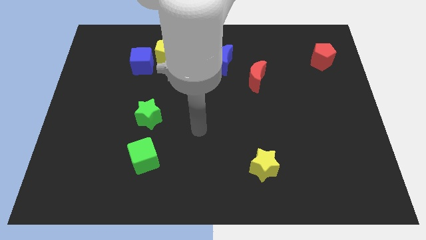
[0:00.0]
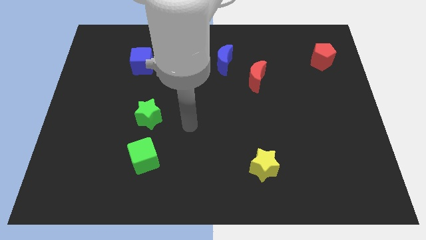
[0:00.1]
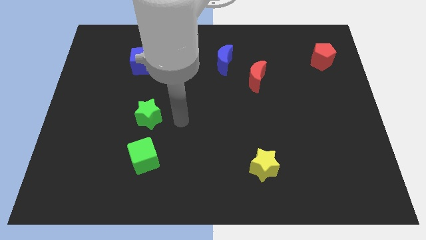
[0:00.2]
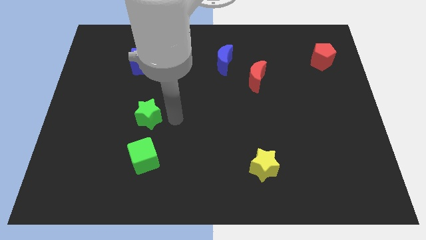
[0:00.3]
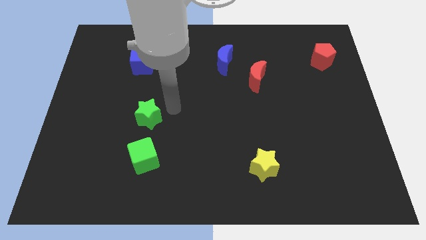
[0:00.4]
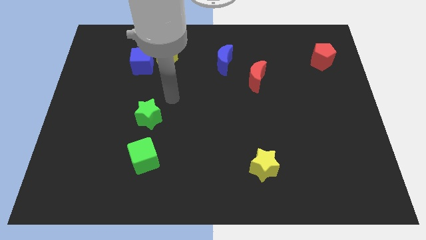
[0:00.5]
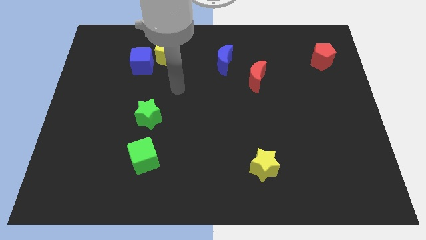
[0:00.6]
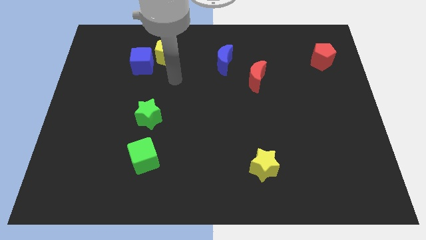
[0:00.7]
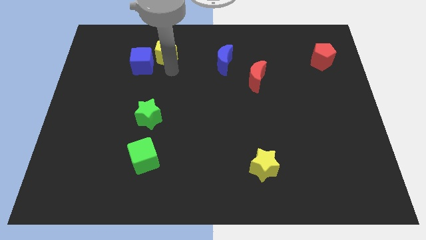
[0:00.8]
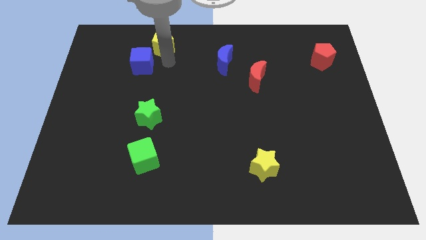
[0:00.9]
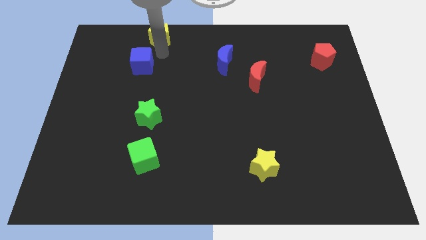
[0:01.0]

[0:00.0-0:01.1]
separate the blue cube from the yellow pentagon

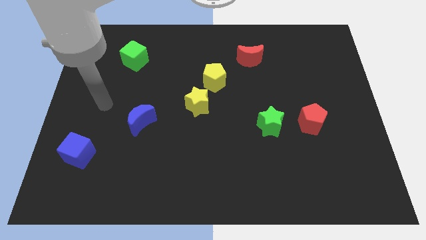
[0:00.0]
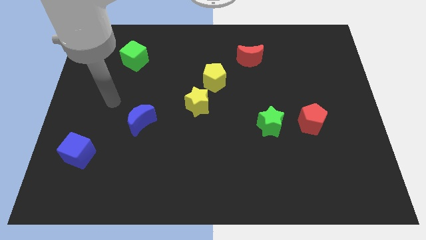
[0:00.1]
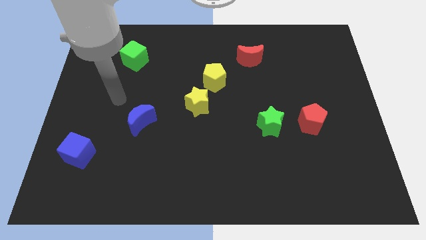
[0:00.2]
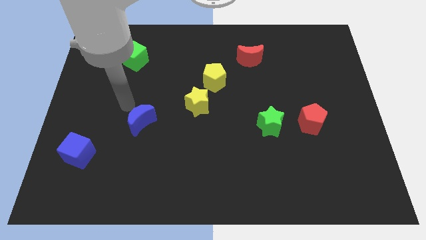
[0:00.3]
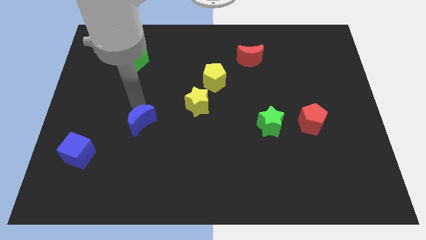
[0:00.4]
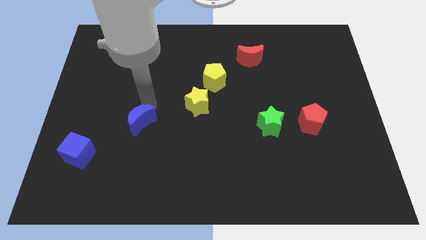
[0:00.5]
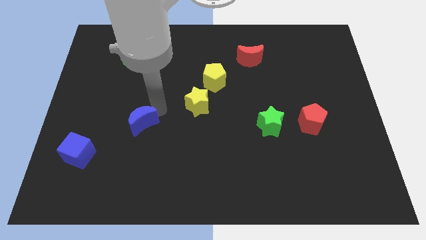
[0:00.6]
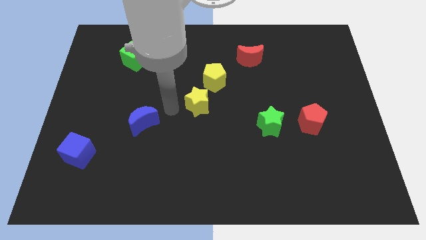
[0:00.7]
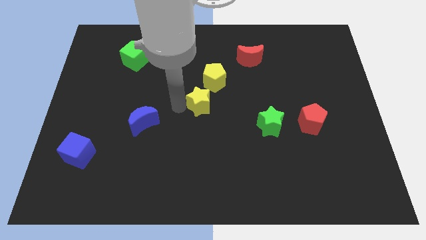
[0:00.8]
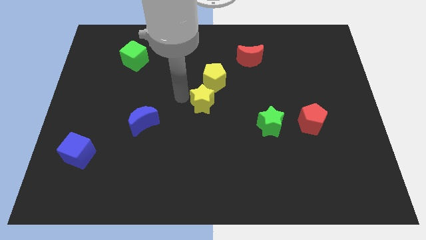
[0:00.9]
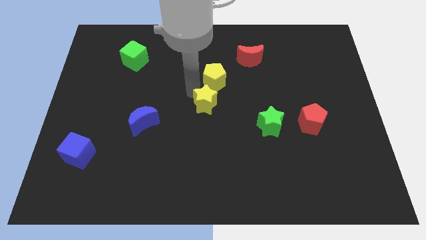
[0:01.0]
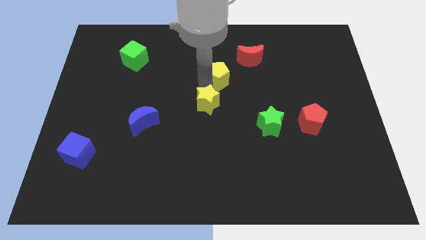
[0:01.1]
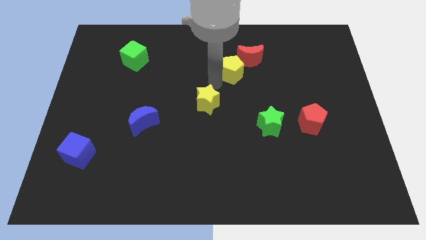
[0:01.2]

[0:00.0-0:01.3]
separate the yellow star from the yellow pentagon

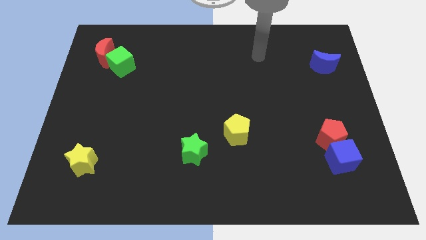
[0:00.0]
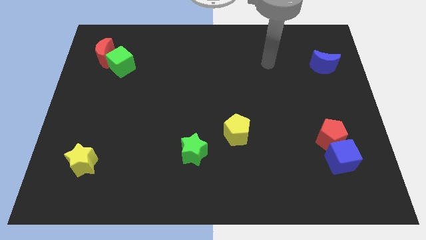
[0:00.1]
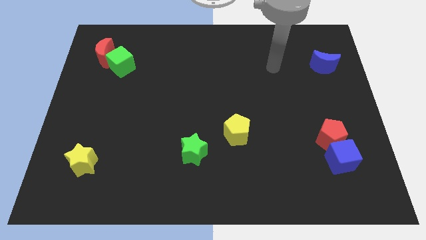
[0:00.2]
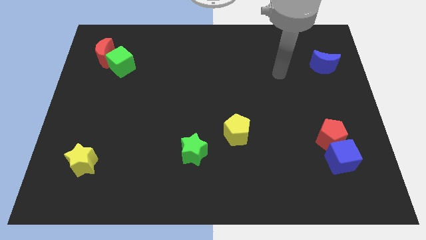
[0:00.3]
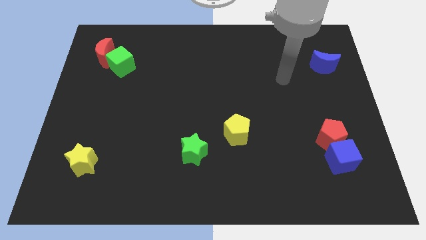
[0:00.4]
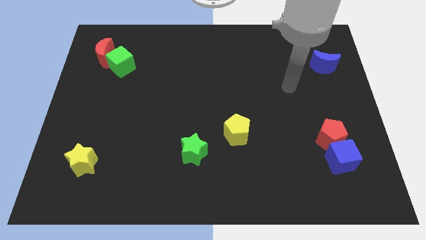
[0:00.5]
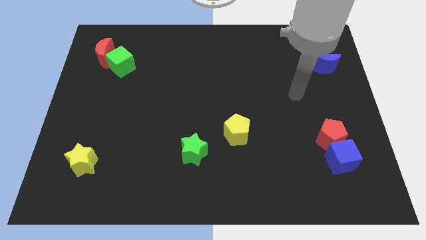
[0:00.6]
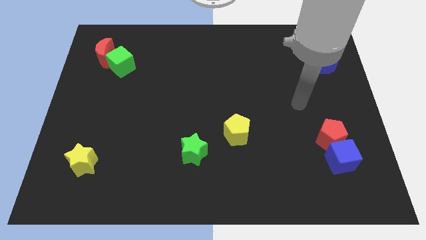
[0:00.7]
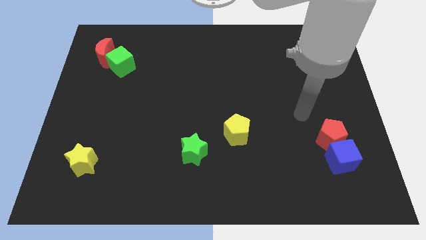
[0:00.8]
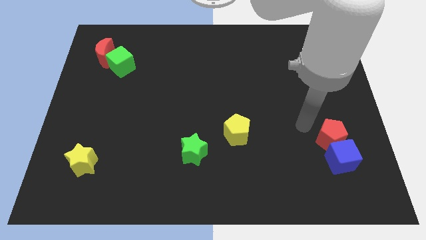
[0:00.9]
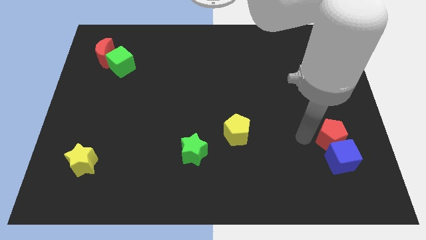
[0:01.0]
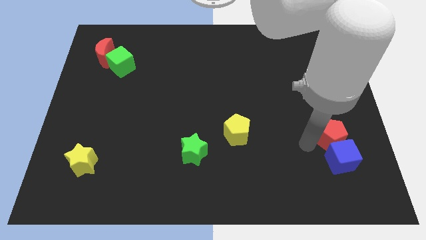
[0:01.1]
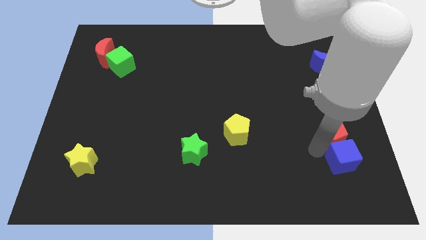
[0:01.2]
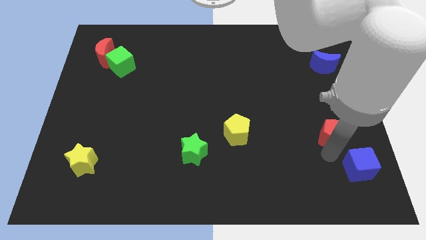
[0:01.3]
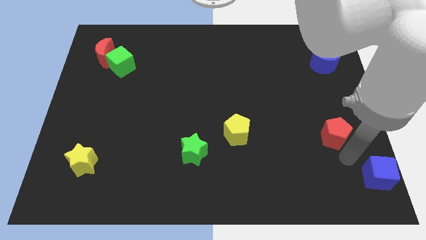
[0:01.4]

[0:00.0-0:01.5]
move the red pentagon away from the blue cube

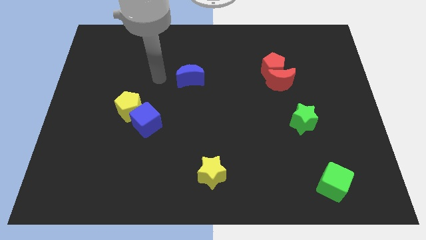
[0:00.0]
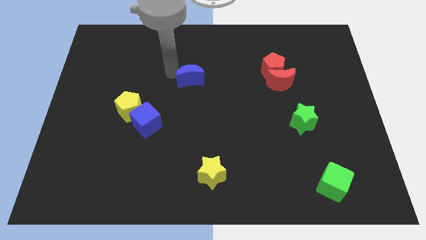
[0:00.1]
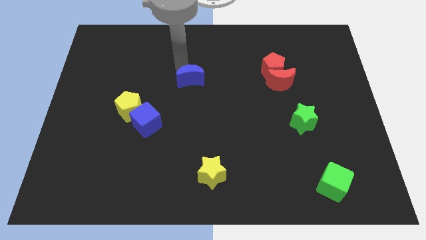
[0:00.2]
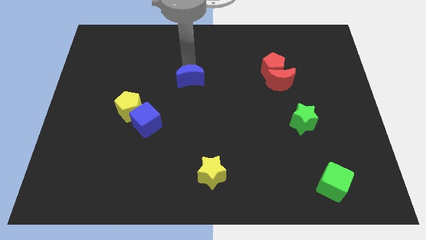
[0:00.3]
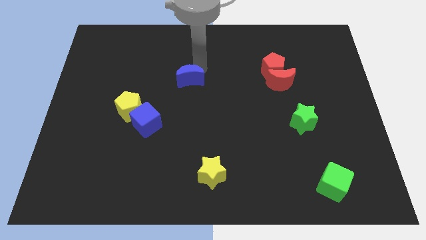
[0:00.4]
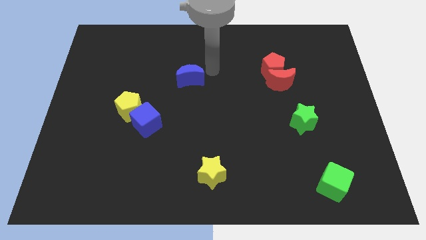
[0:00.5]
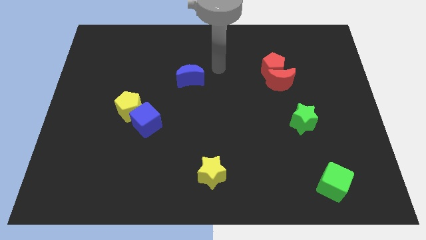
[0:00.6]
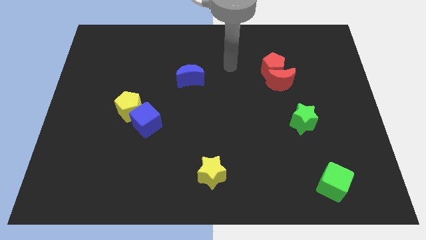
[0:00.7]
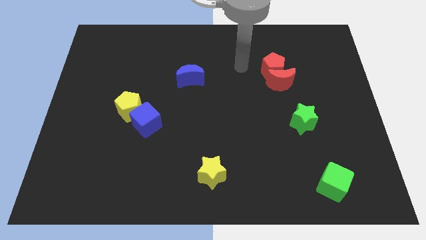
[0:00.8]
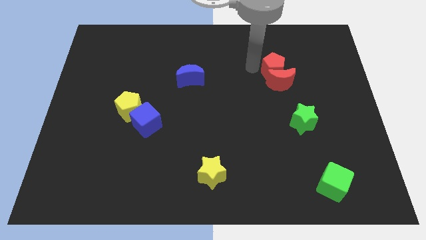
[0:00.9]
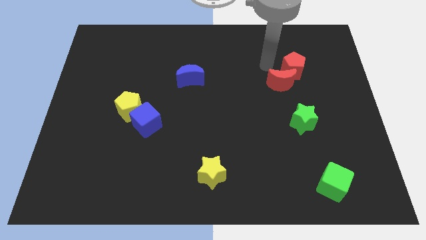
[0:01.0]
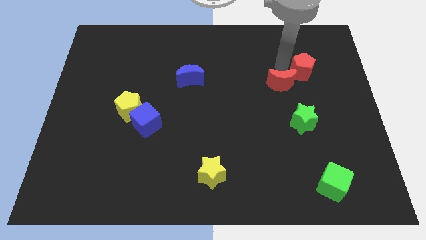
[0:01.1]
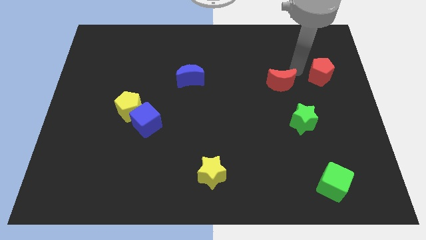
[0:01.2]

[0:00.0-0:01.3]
separate the red moon from the red pentagon

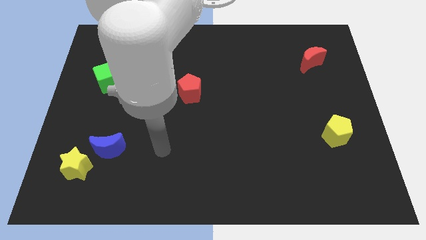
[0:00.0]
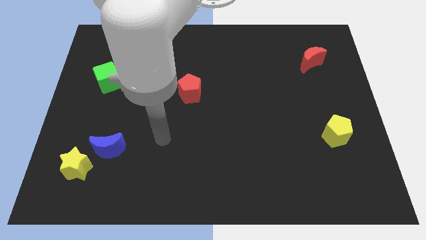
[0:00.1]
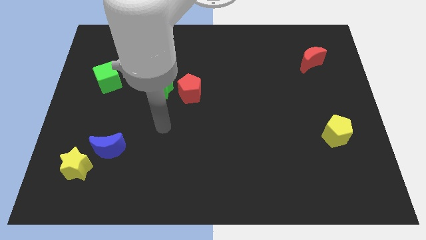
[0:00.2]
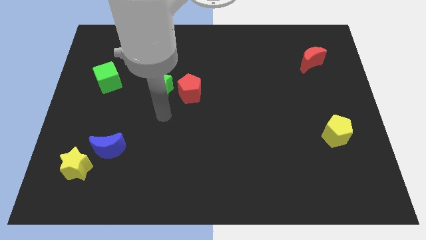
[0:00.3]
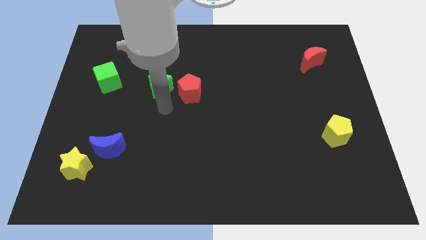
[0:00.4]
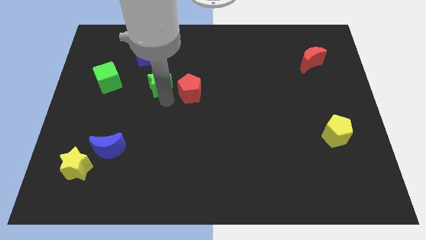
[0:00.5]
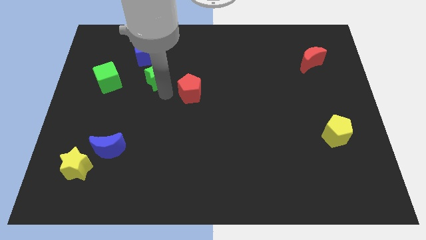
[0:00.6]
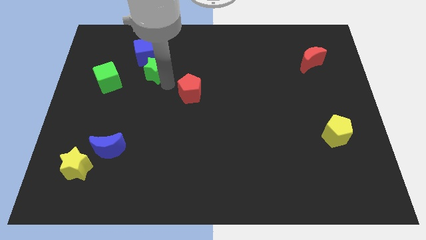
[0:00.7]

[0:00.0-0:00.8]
separate the red pentagon from the green star

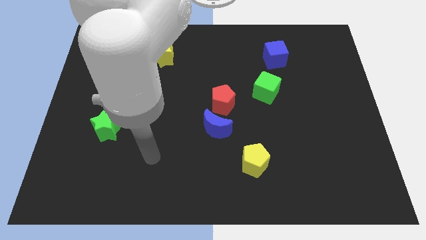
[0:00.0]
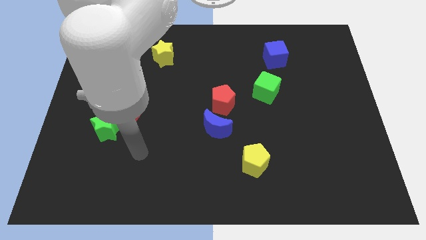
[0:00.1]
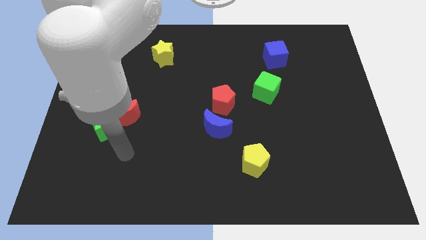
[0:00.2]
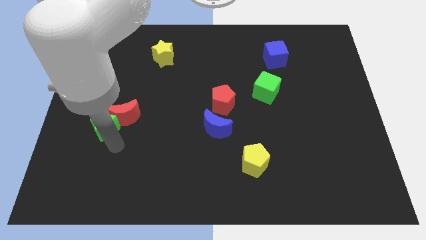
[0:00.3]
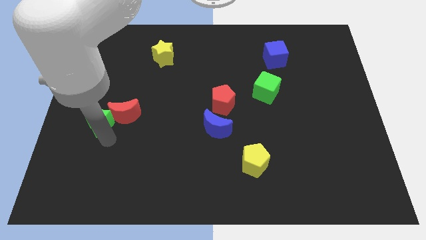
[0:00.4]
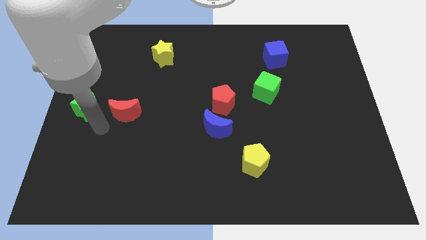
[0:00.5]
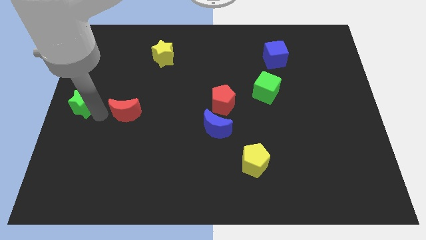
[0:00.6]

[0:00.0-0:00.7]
separate the red moon from the green star

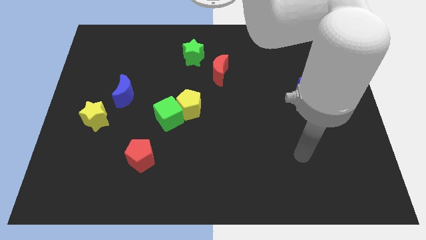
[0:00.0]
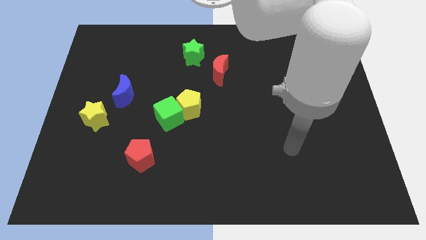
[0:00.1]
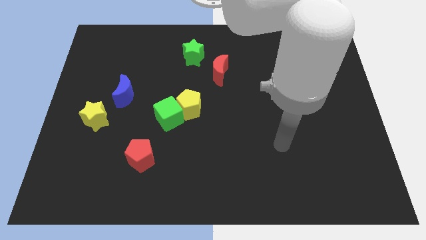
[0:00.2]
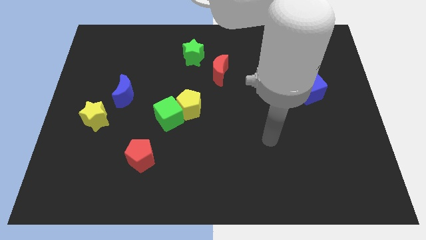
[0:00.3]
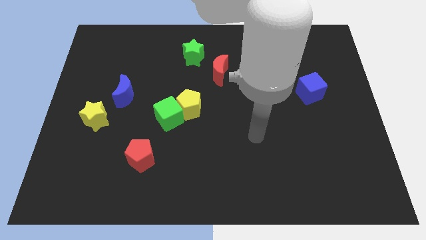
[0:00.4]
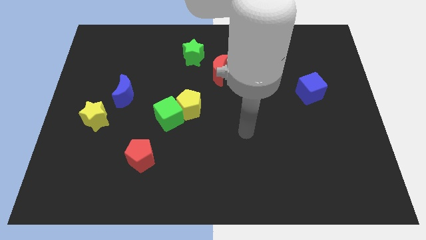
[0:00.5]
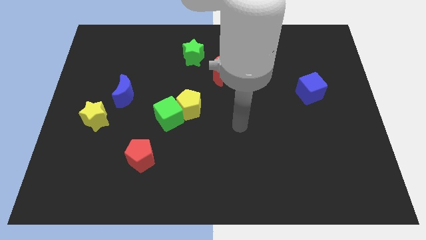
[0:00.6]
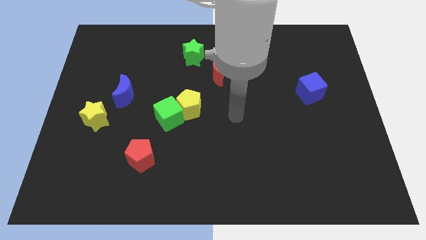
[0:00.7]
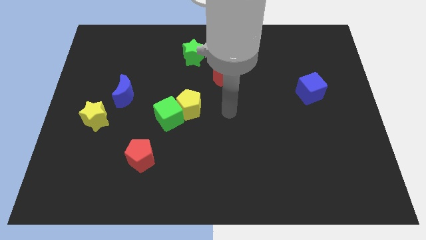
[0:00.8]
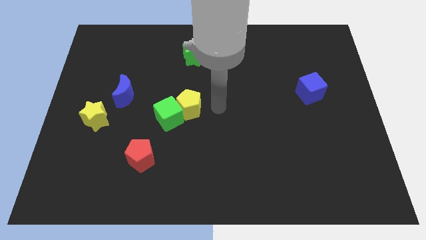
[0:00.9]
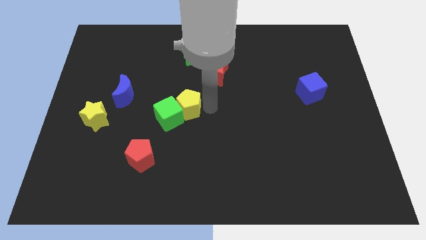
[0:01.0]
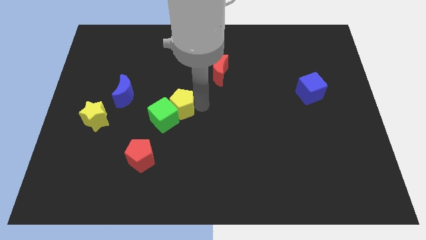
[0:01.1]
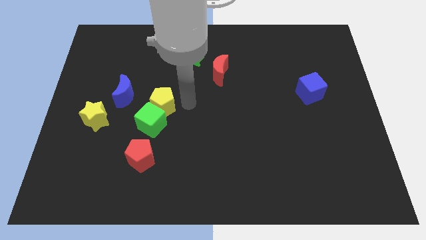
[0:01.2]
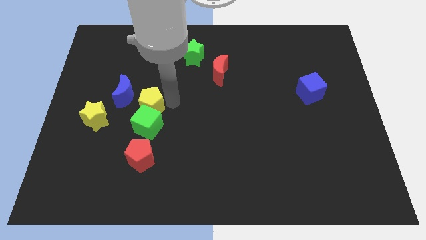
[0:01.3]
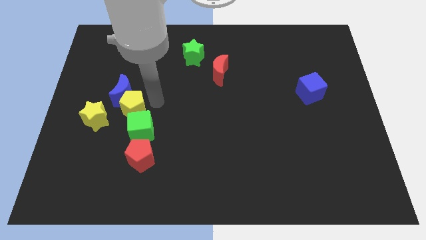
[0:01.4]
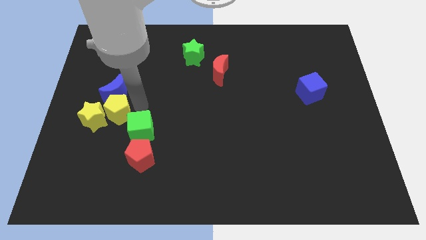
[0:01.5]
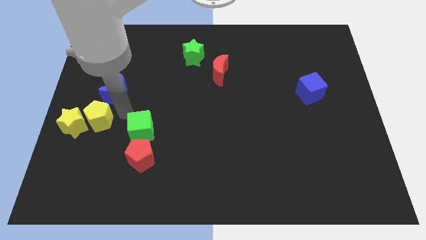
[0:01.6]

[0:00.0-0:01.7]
separate the green cube from the yellow pentagon

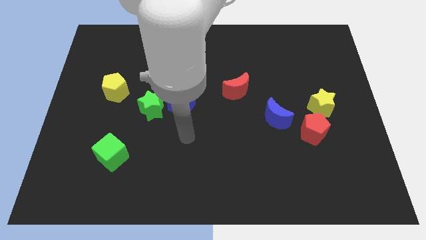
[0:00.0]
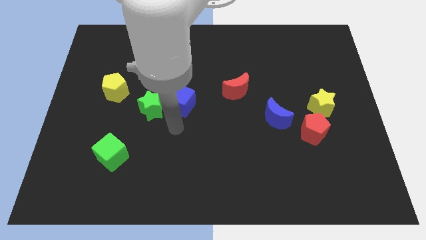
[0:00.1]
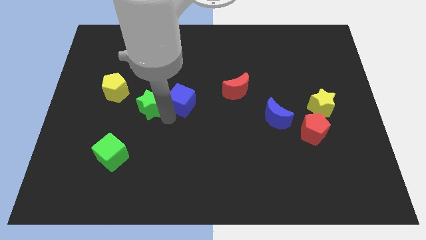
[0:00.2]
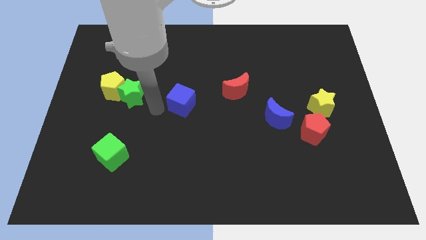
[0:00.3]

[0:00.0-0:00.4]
move the blue cube away from the green star

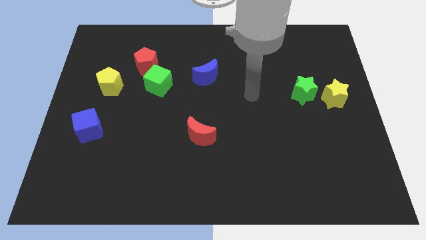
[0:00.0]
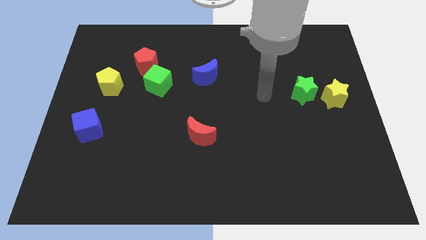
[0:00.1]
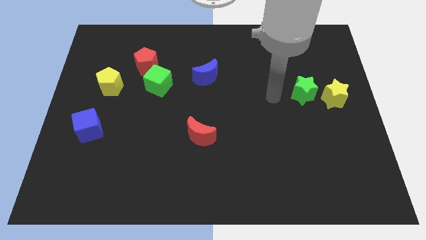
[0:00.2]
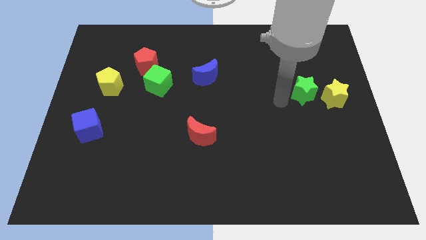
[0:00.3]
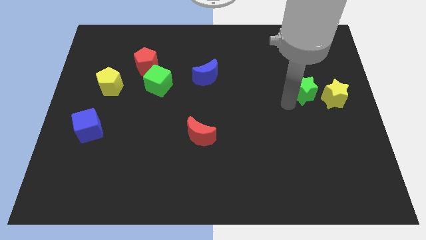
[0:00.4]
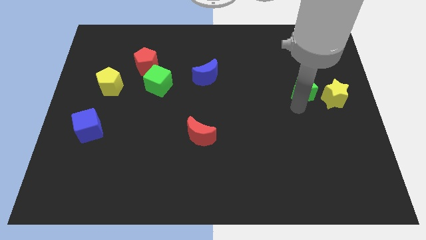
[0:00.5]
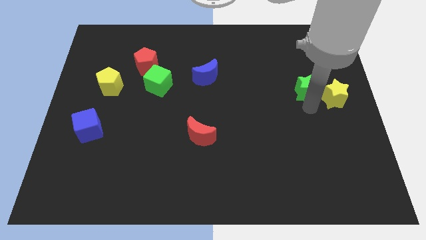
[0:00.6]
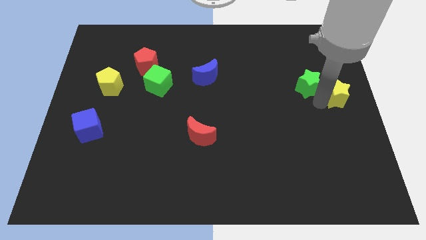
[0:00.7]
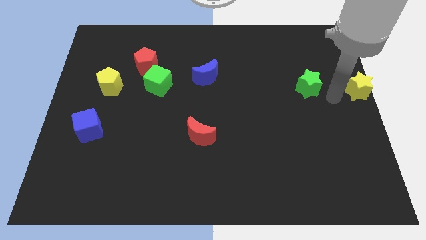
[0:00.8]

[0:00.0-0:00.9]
move the green star away from the yellow star
